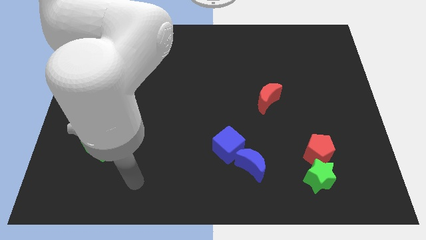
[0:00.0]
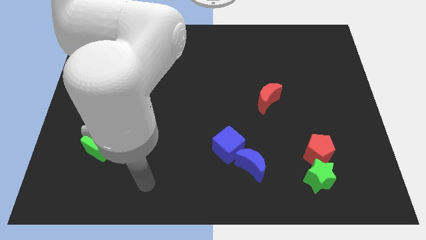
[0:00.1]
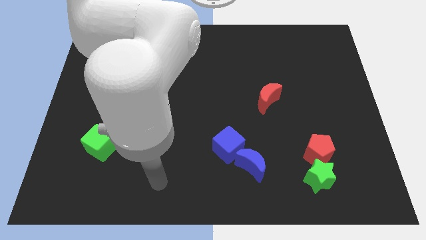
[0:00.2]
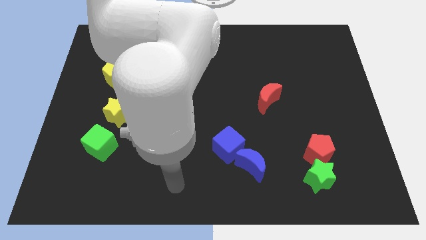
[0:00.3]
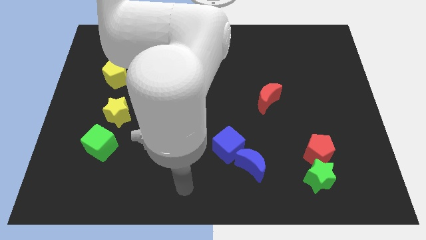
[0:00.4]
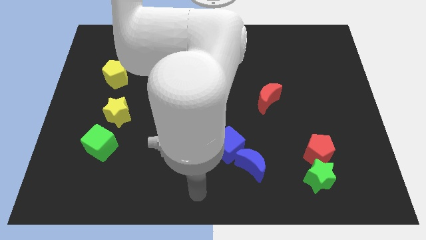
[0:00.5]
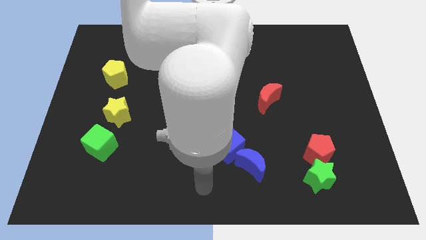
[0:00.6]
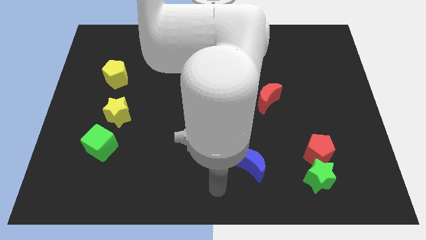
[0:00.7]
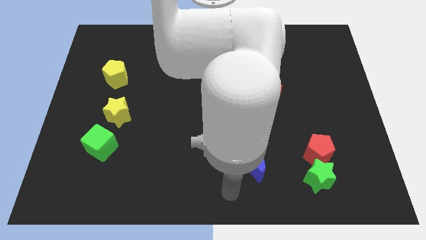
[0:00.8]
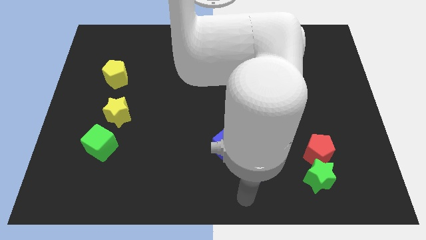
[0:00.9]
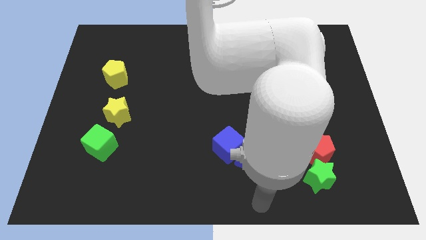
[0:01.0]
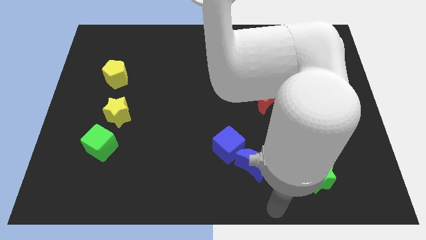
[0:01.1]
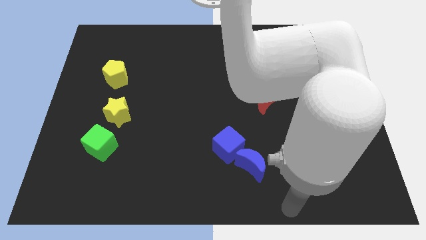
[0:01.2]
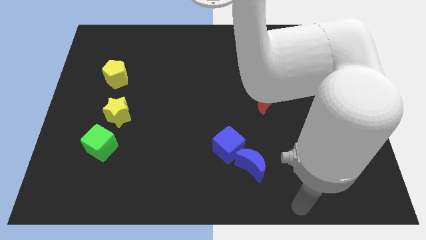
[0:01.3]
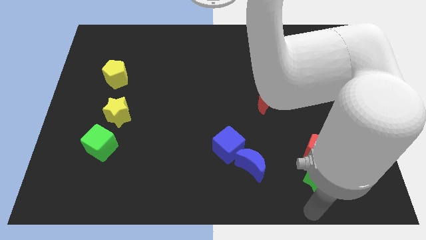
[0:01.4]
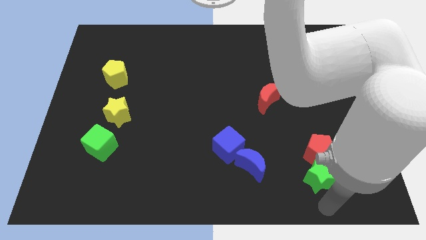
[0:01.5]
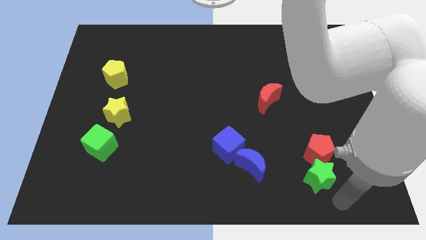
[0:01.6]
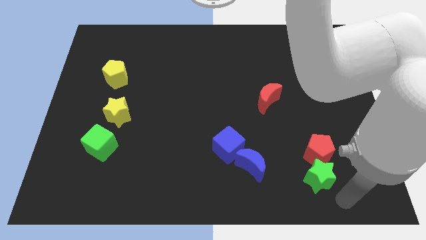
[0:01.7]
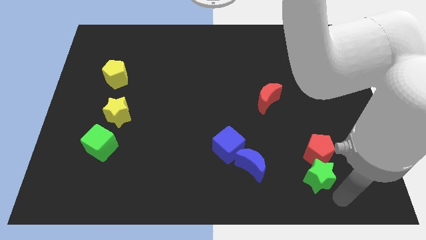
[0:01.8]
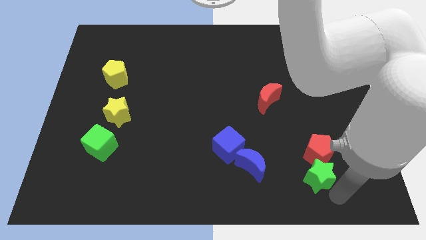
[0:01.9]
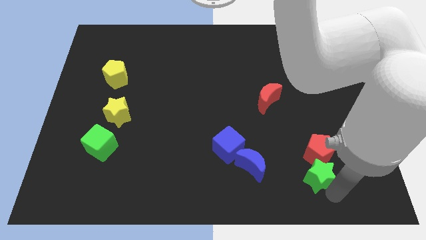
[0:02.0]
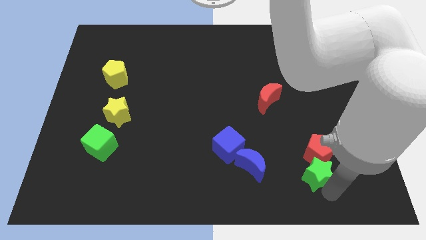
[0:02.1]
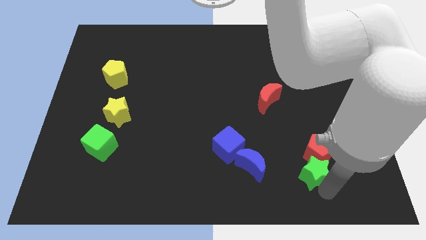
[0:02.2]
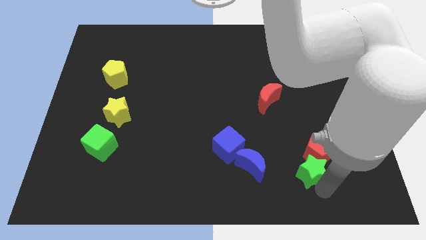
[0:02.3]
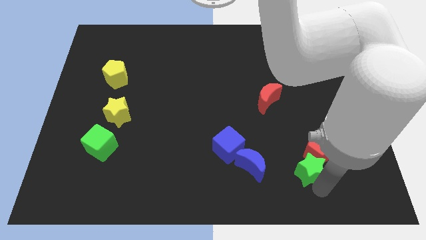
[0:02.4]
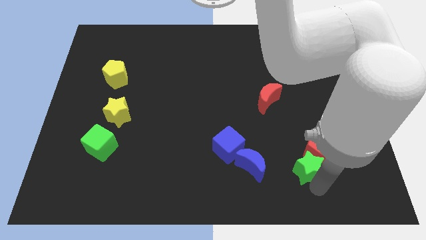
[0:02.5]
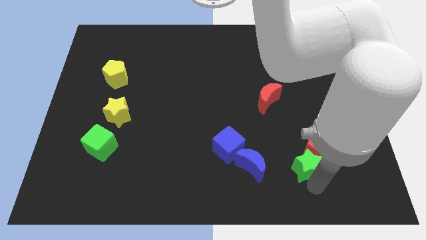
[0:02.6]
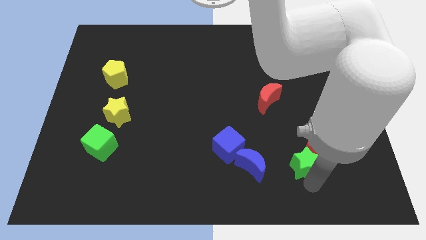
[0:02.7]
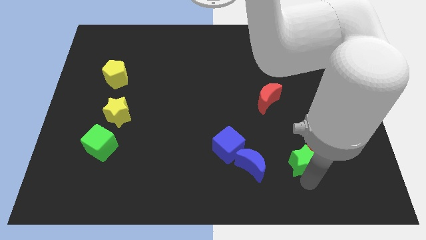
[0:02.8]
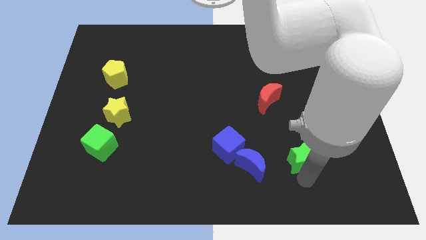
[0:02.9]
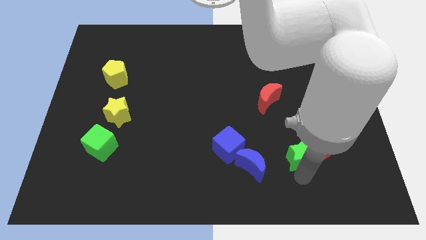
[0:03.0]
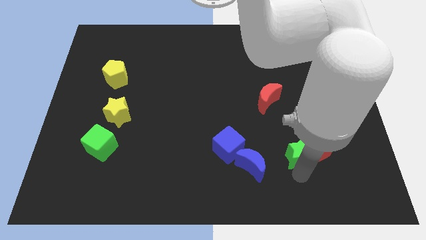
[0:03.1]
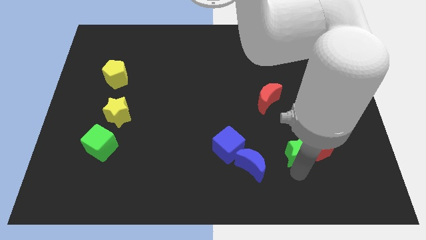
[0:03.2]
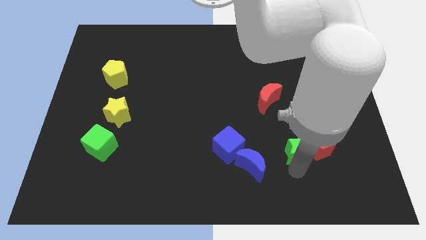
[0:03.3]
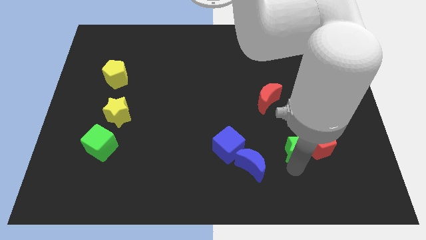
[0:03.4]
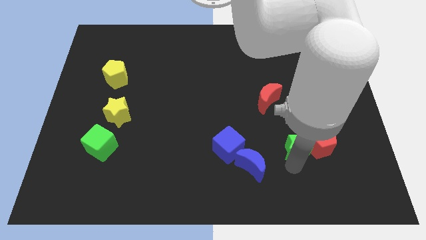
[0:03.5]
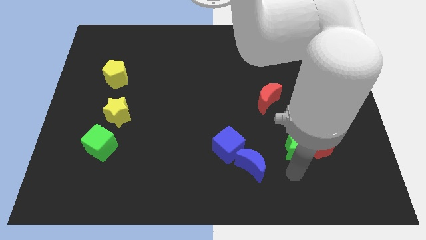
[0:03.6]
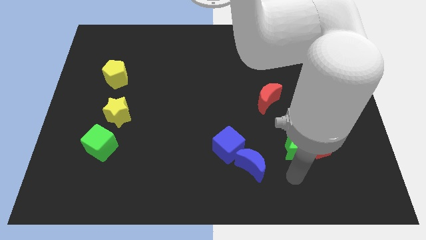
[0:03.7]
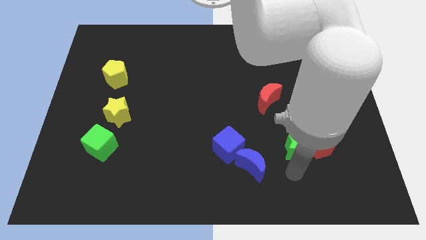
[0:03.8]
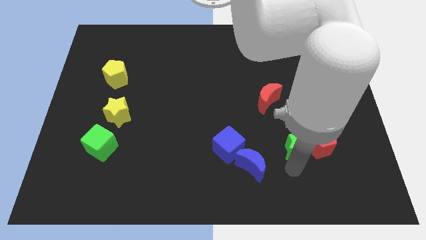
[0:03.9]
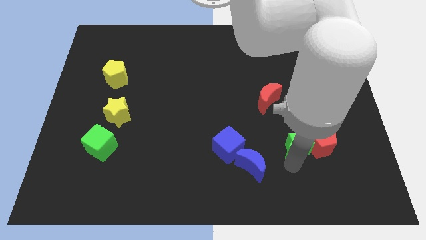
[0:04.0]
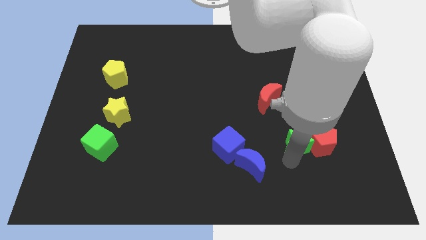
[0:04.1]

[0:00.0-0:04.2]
push the green star somewhat up

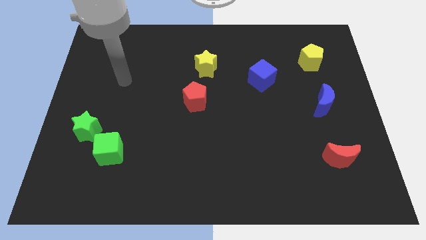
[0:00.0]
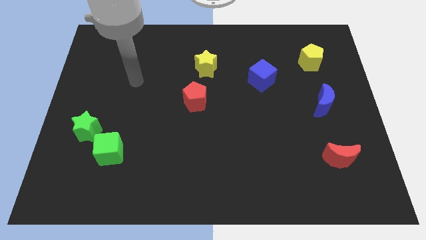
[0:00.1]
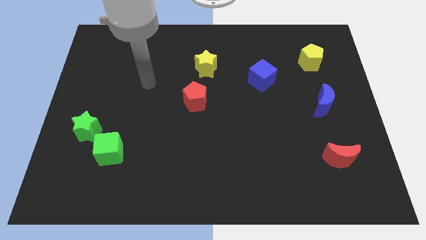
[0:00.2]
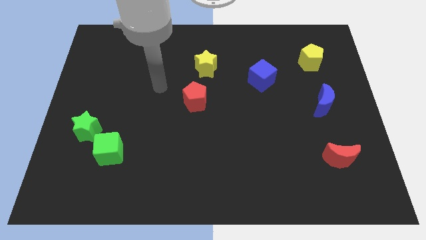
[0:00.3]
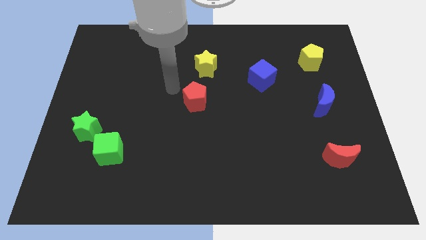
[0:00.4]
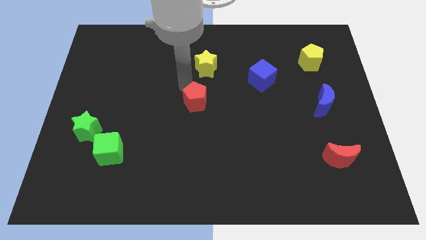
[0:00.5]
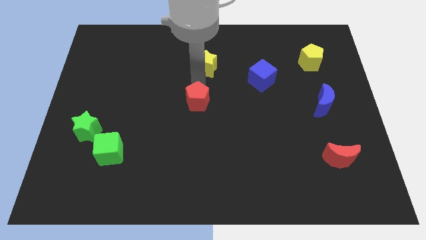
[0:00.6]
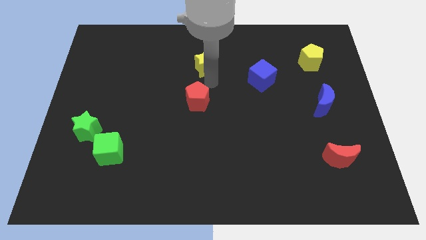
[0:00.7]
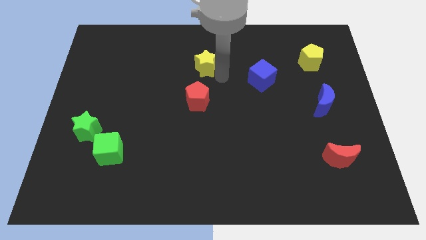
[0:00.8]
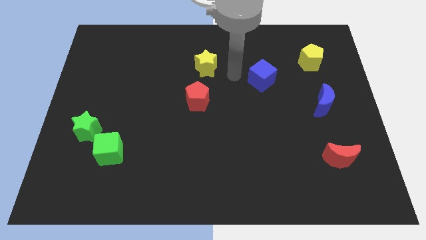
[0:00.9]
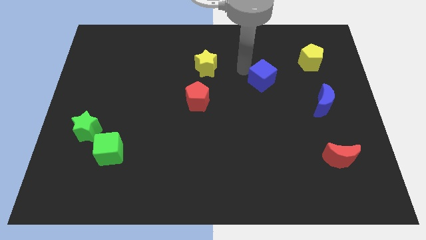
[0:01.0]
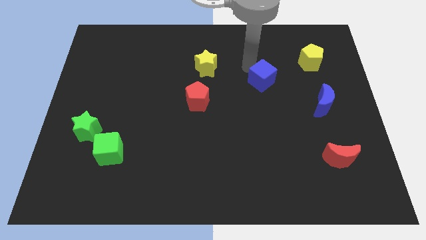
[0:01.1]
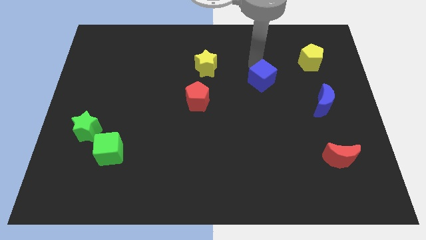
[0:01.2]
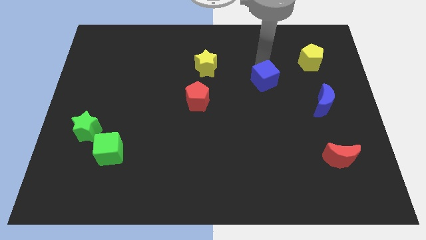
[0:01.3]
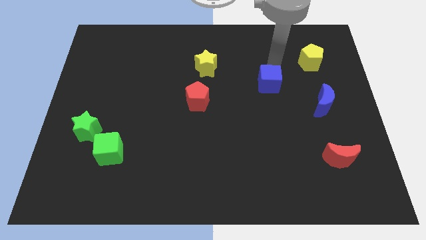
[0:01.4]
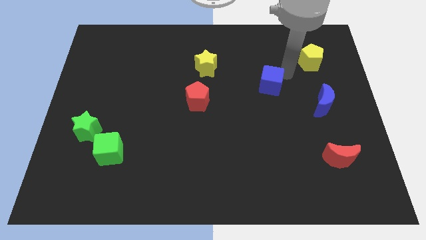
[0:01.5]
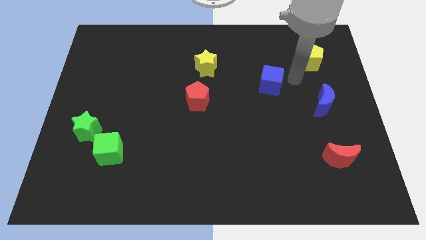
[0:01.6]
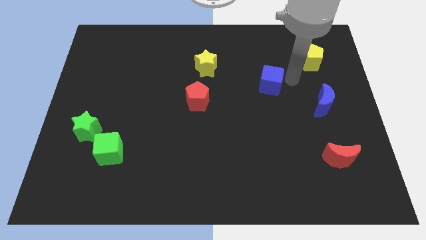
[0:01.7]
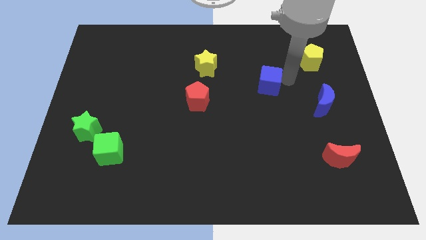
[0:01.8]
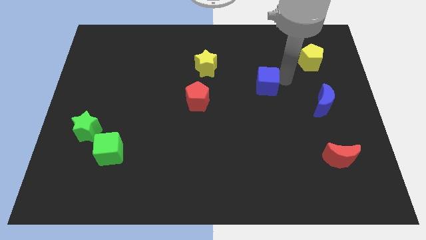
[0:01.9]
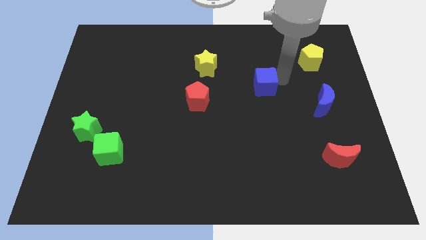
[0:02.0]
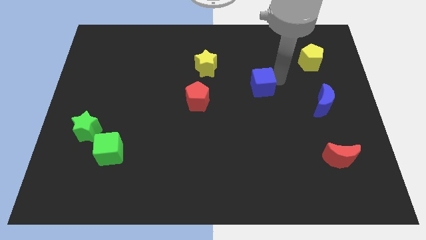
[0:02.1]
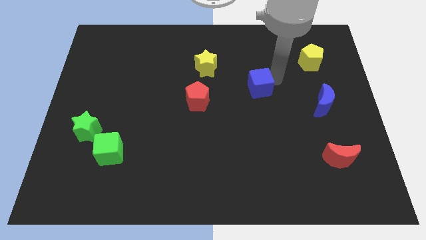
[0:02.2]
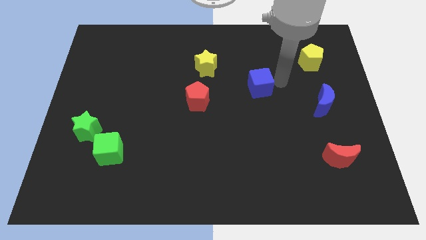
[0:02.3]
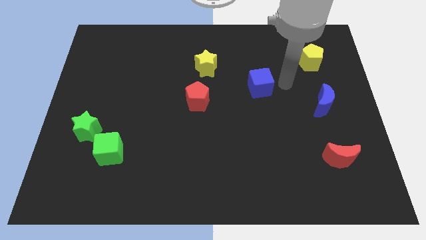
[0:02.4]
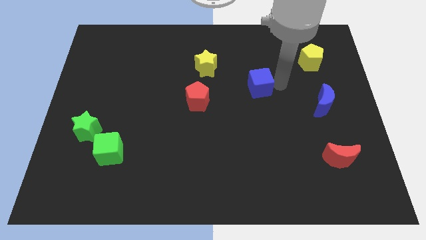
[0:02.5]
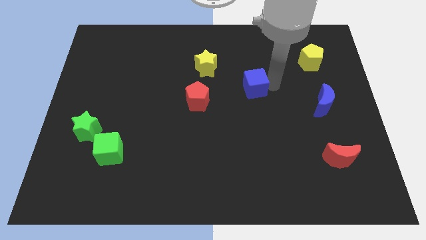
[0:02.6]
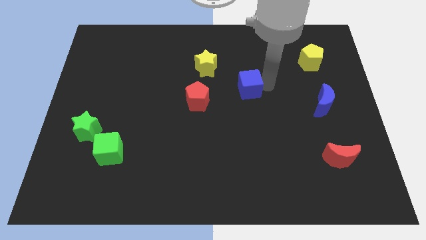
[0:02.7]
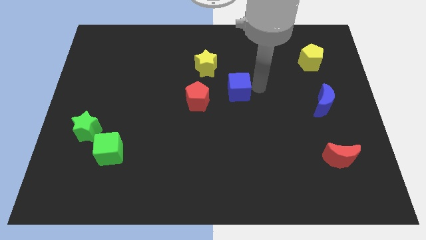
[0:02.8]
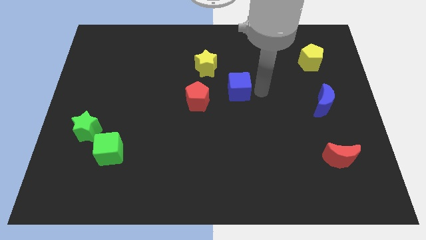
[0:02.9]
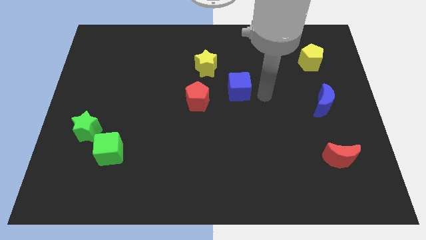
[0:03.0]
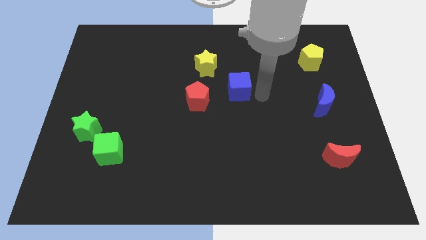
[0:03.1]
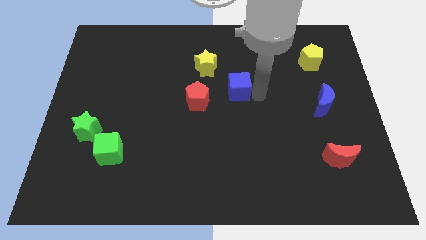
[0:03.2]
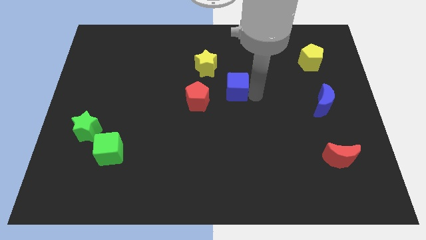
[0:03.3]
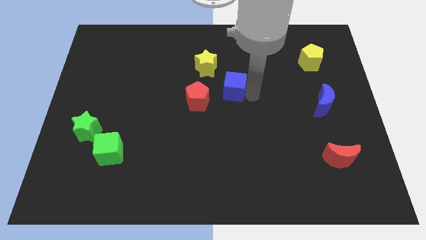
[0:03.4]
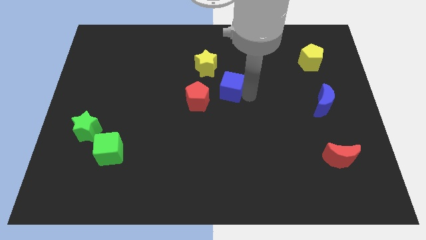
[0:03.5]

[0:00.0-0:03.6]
push the blue cube a little bit left

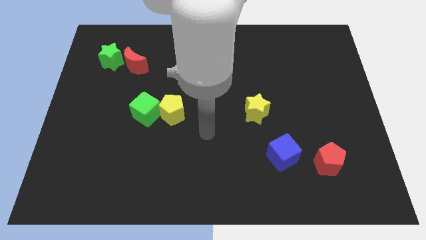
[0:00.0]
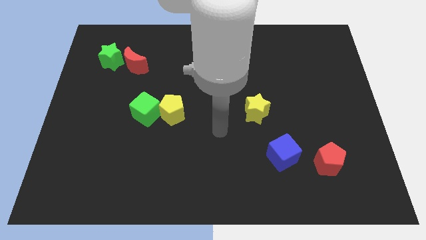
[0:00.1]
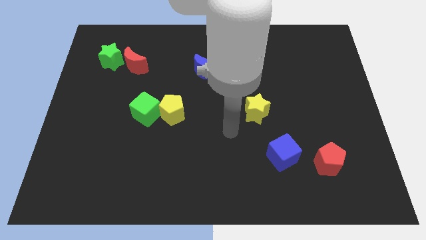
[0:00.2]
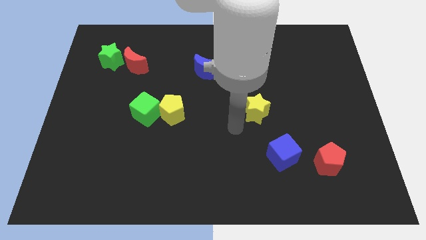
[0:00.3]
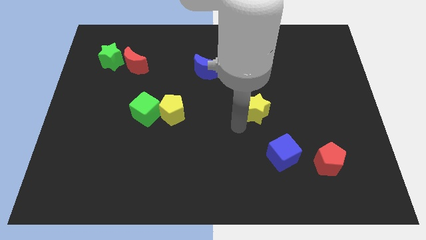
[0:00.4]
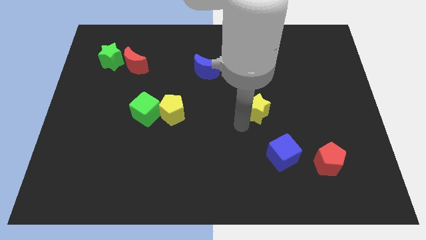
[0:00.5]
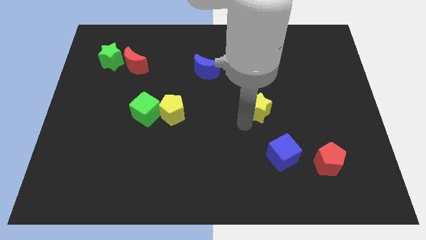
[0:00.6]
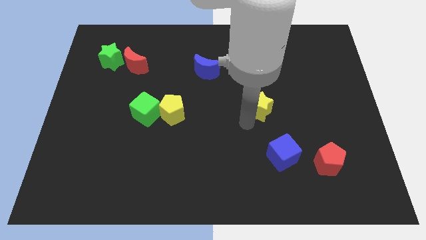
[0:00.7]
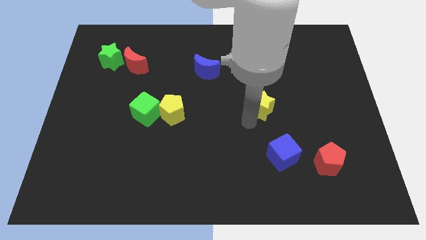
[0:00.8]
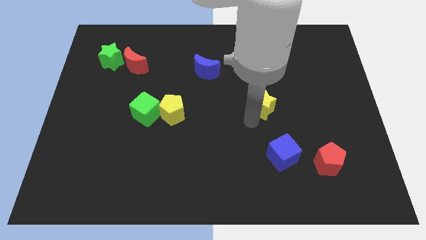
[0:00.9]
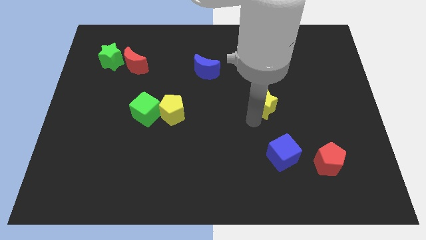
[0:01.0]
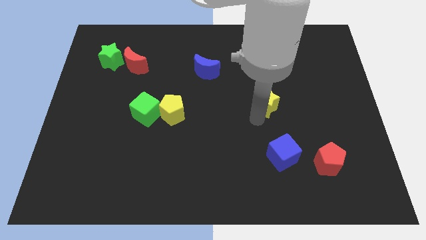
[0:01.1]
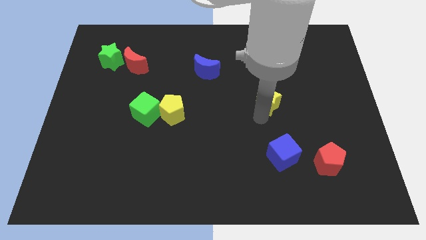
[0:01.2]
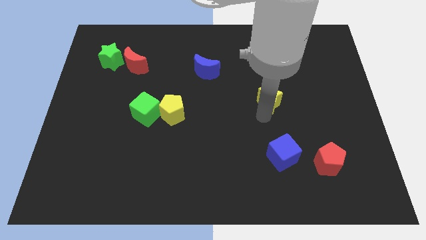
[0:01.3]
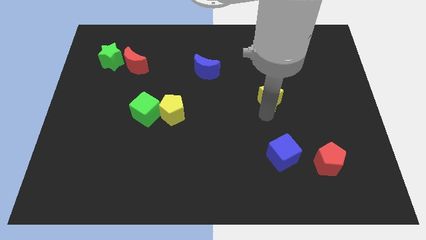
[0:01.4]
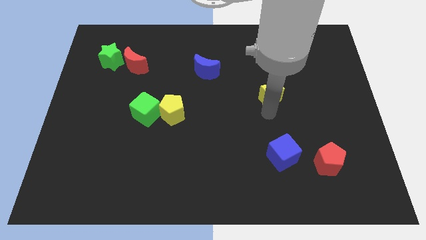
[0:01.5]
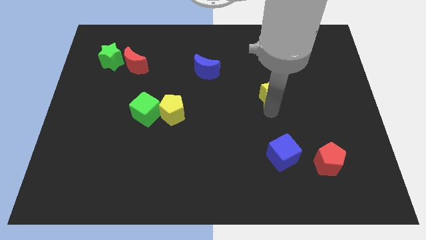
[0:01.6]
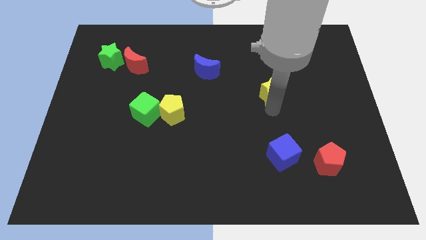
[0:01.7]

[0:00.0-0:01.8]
slightly move the yellow star up and right
